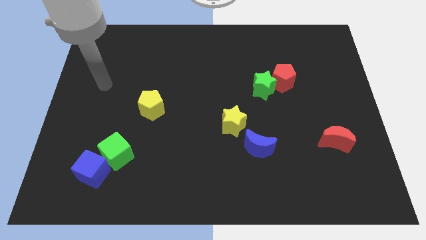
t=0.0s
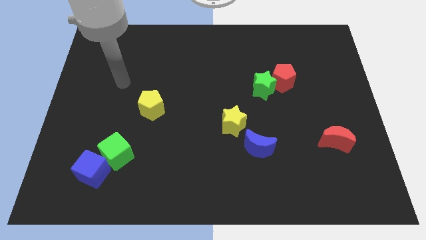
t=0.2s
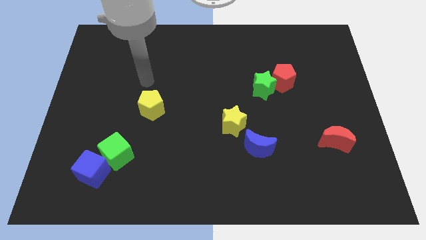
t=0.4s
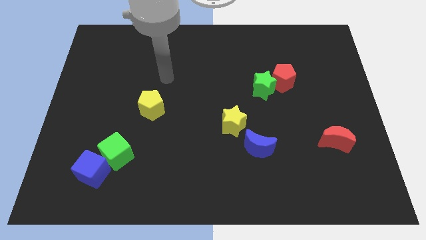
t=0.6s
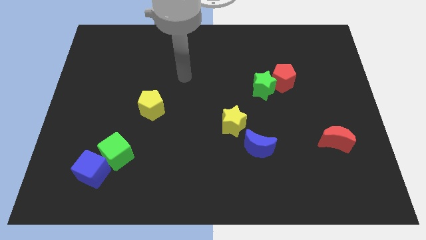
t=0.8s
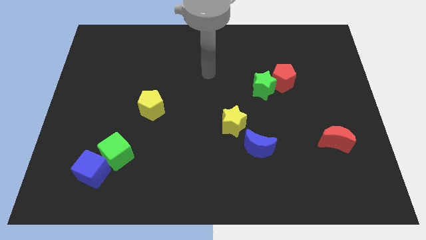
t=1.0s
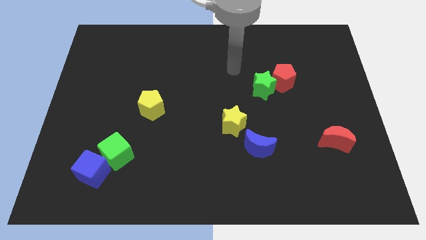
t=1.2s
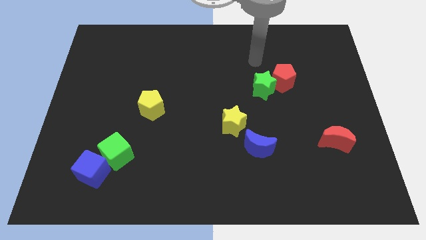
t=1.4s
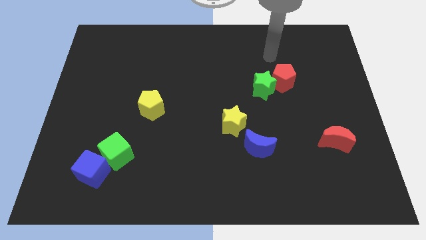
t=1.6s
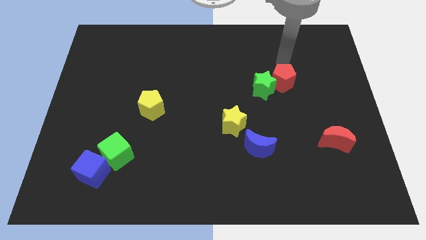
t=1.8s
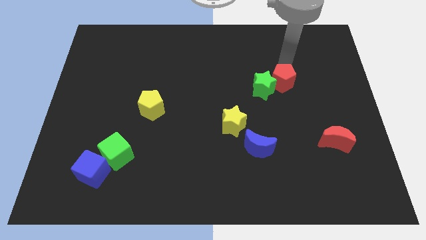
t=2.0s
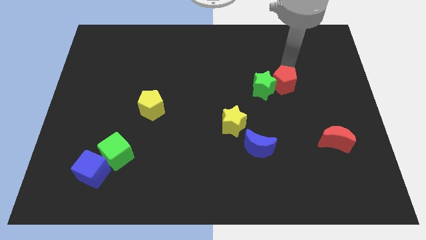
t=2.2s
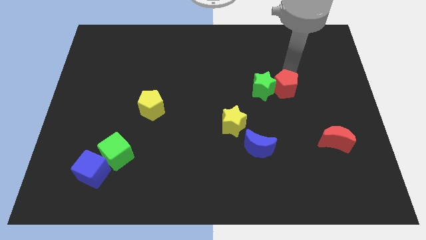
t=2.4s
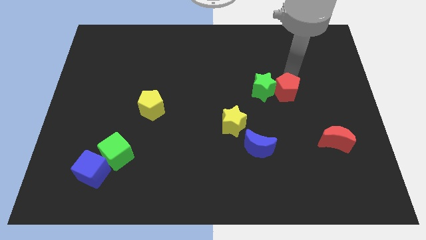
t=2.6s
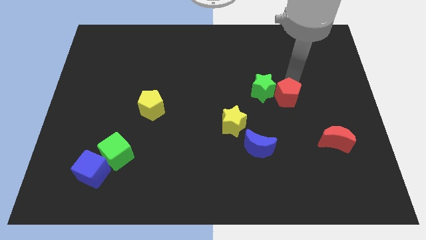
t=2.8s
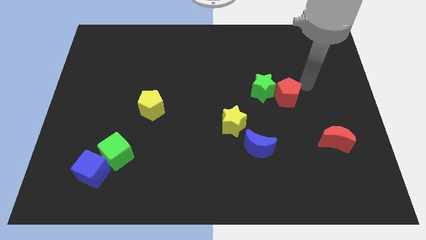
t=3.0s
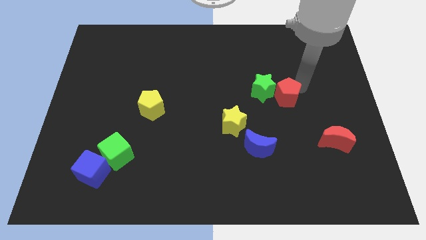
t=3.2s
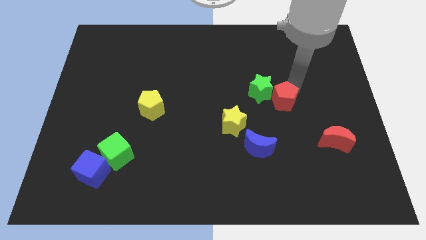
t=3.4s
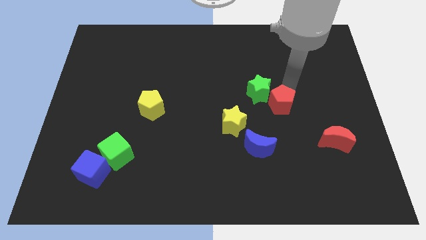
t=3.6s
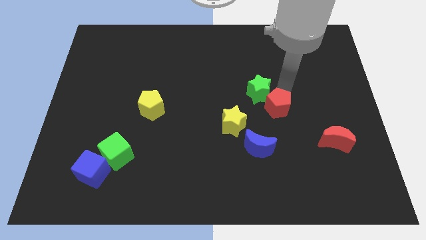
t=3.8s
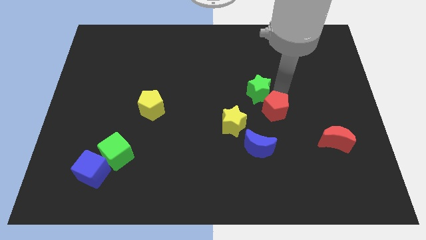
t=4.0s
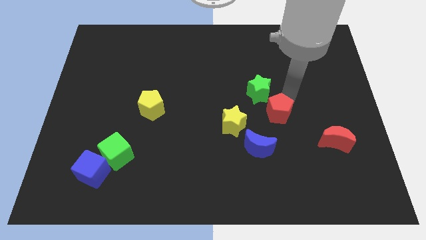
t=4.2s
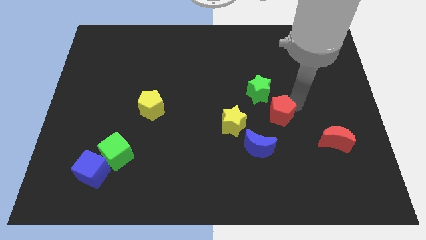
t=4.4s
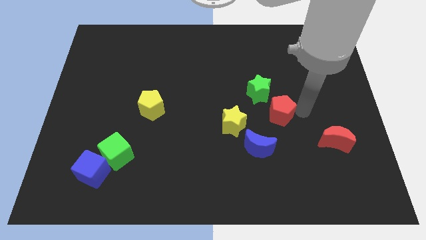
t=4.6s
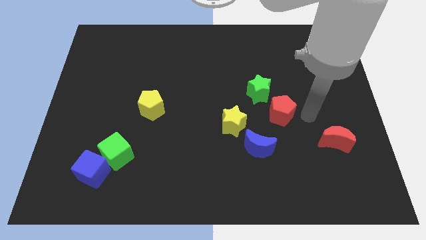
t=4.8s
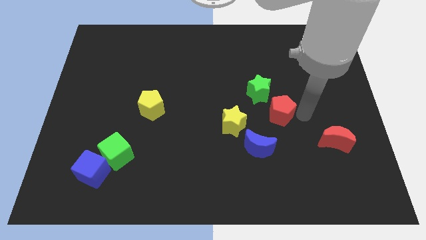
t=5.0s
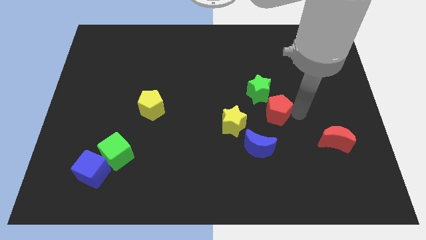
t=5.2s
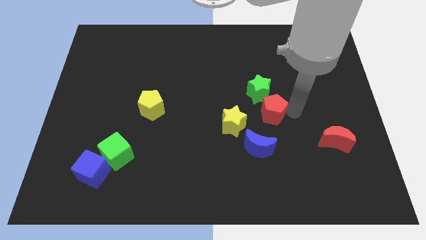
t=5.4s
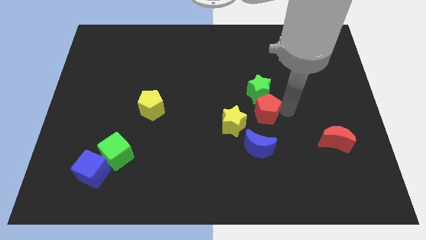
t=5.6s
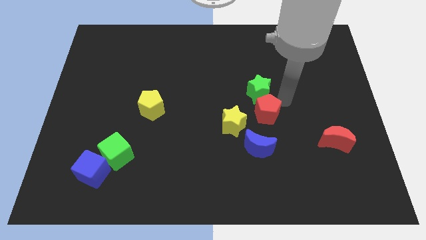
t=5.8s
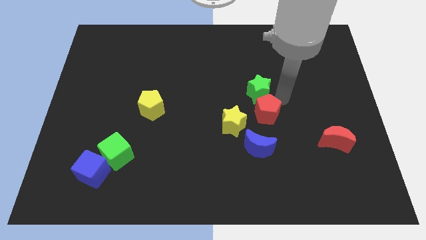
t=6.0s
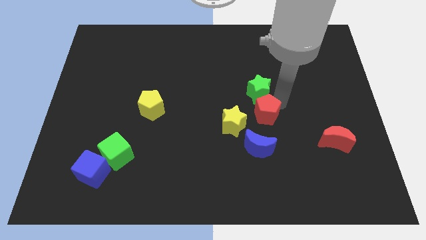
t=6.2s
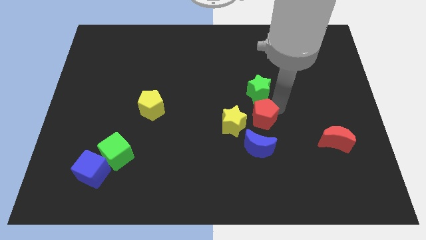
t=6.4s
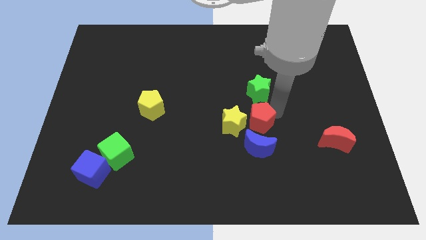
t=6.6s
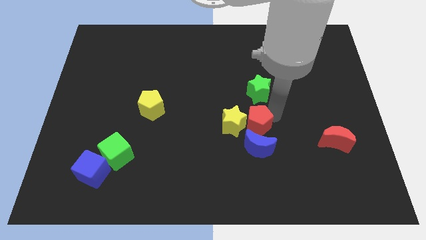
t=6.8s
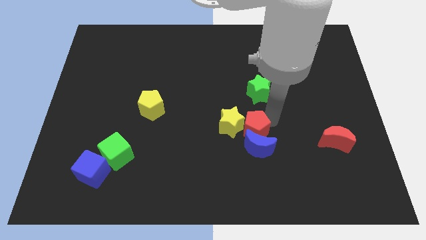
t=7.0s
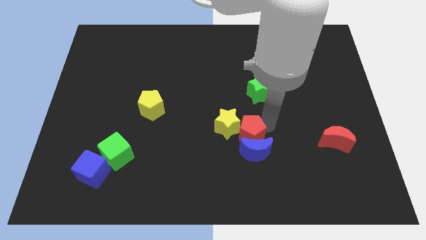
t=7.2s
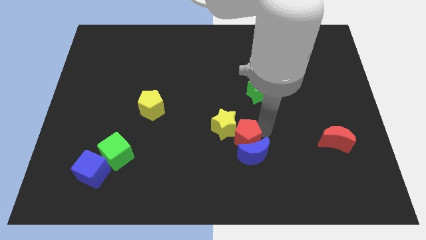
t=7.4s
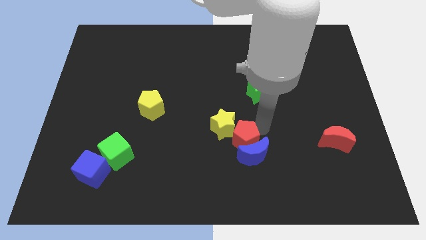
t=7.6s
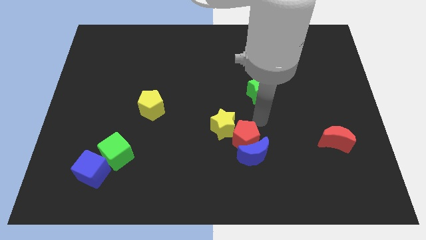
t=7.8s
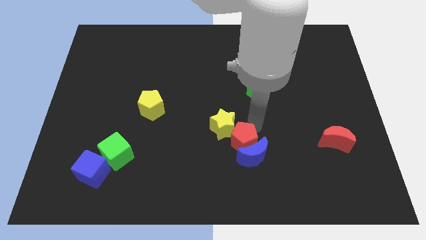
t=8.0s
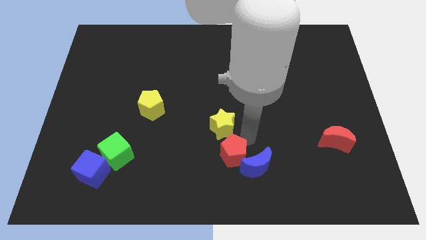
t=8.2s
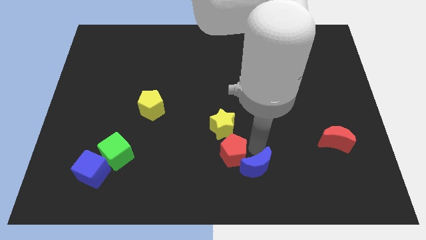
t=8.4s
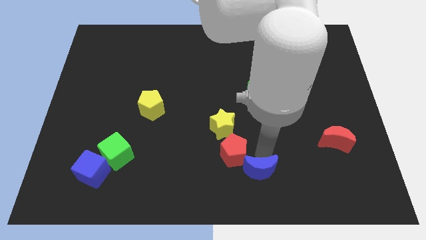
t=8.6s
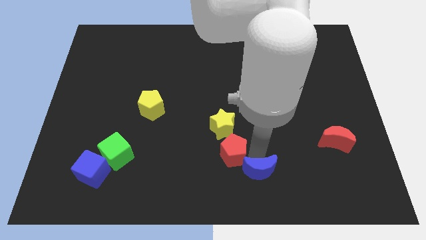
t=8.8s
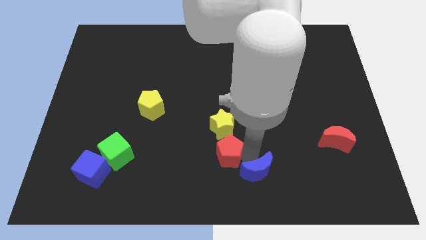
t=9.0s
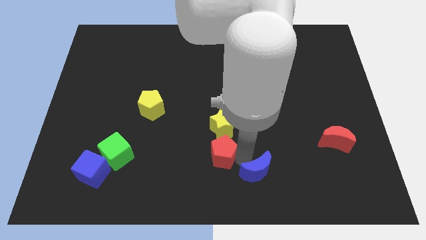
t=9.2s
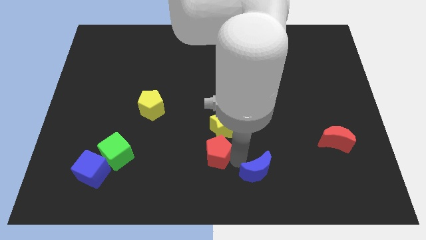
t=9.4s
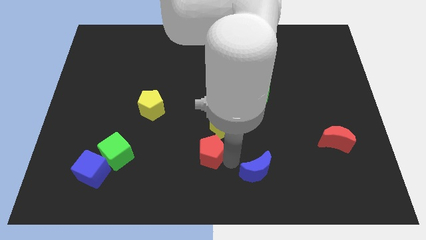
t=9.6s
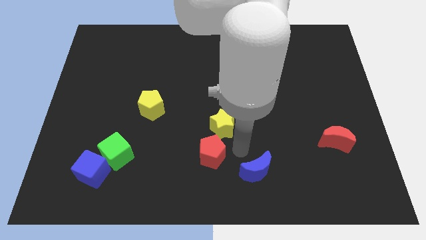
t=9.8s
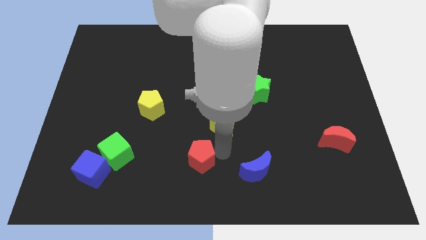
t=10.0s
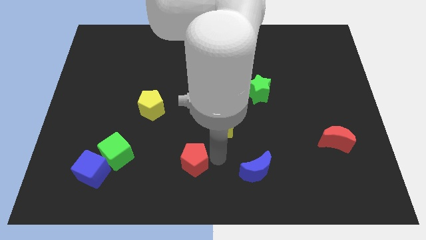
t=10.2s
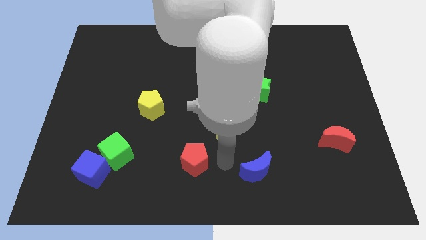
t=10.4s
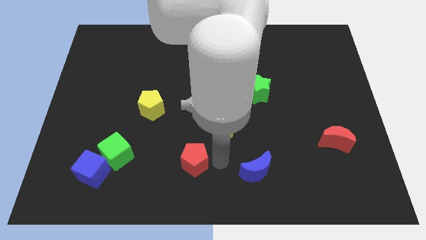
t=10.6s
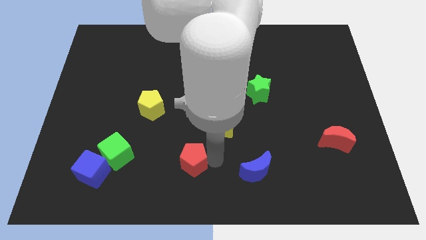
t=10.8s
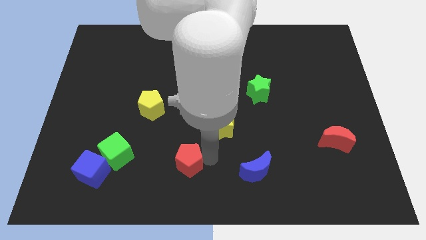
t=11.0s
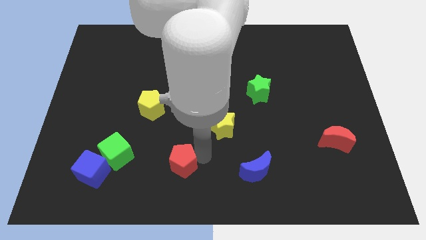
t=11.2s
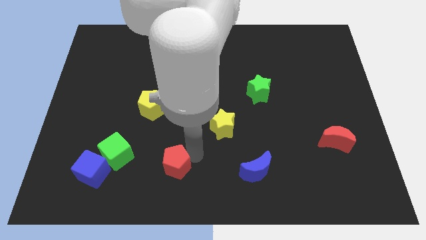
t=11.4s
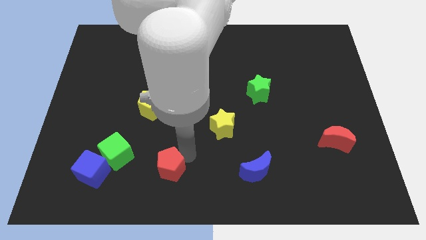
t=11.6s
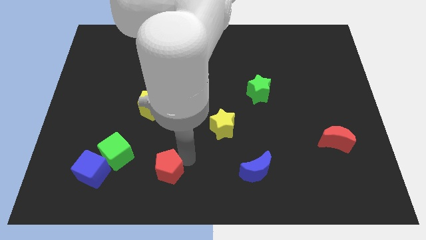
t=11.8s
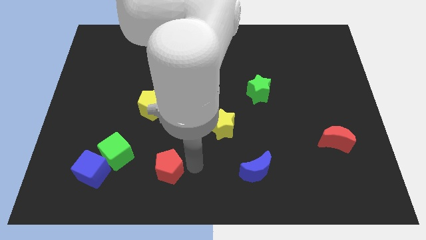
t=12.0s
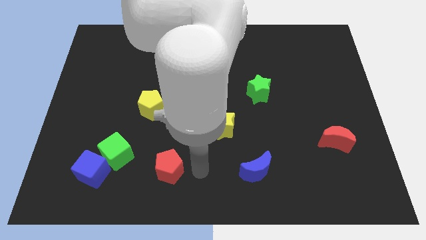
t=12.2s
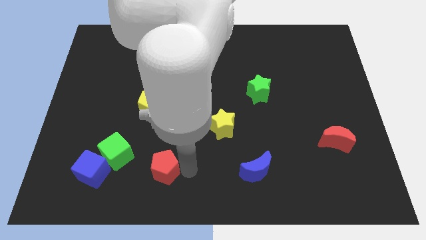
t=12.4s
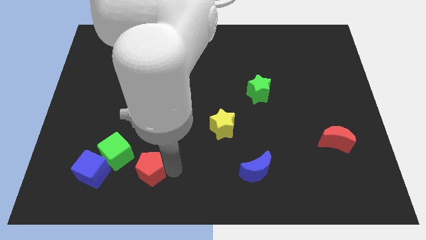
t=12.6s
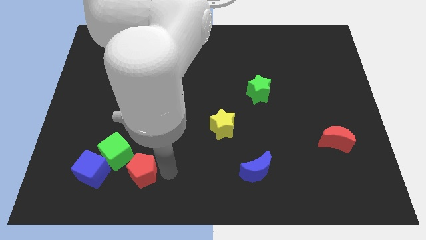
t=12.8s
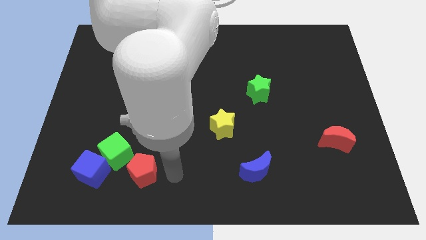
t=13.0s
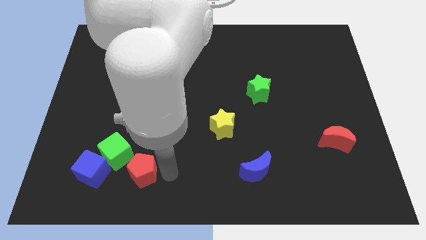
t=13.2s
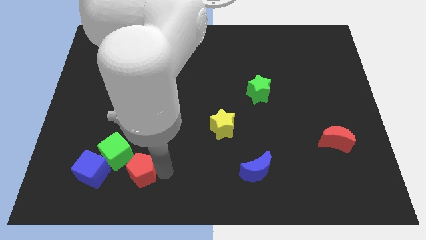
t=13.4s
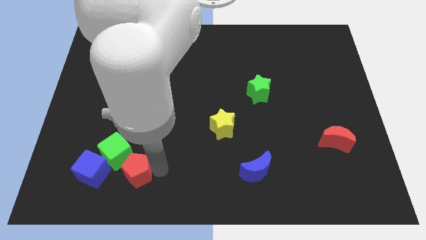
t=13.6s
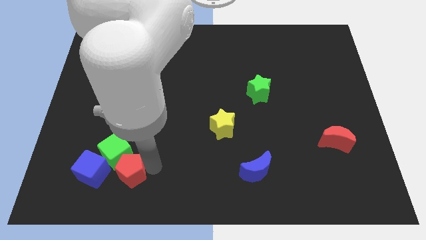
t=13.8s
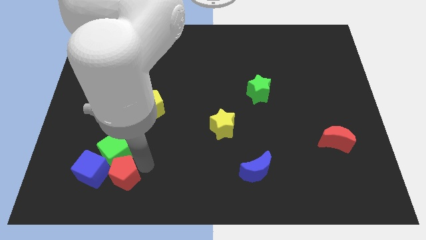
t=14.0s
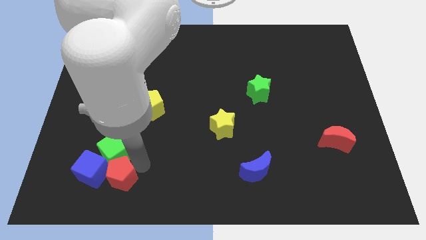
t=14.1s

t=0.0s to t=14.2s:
push the red pentagon next to the blue cube

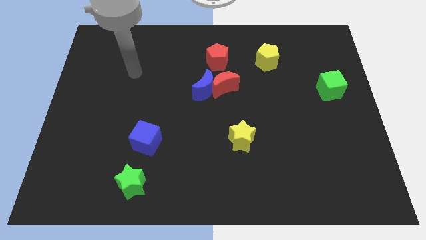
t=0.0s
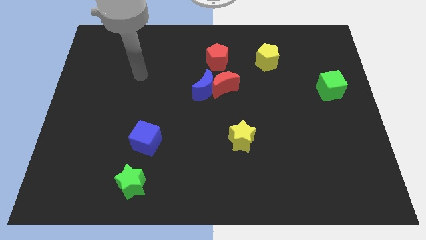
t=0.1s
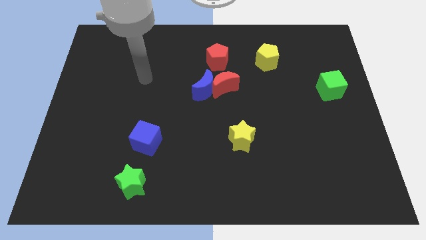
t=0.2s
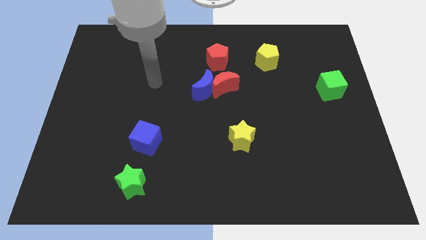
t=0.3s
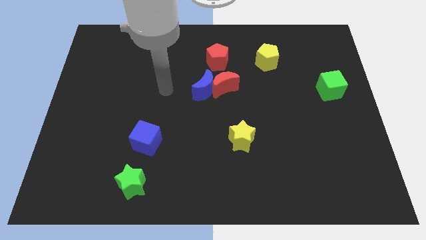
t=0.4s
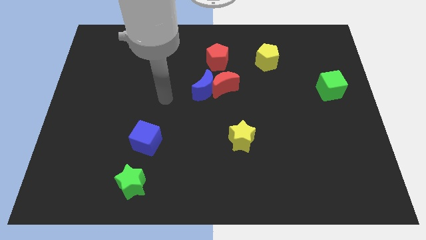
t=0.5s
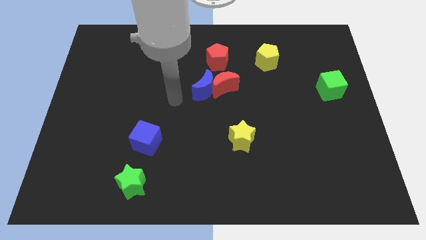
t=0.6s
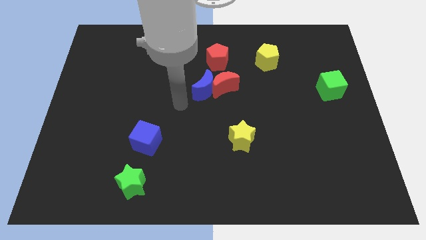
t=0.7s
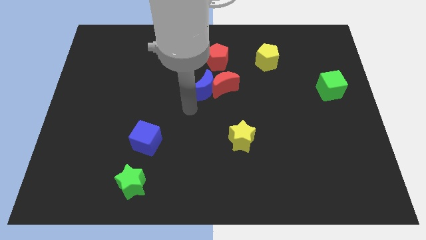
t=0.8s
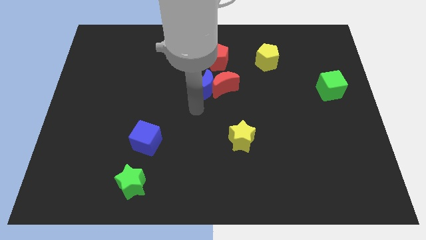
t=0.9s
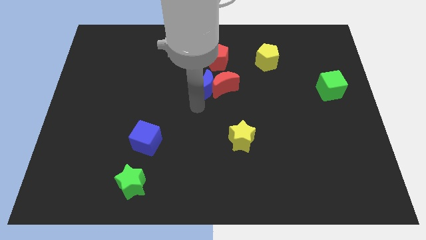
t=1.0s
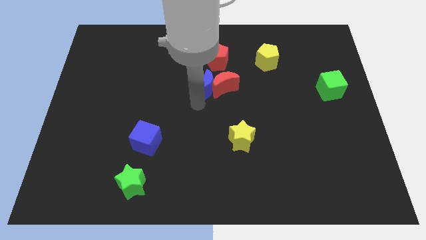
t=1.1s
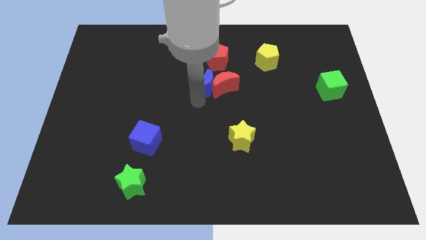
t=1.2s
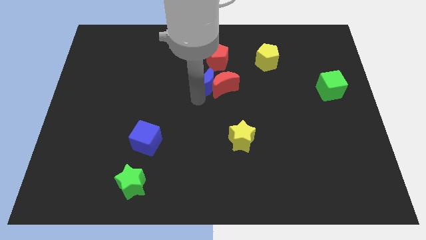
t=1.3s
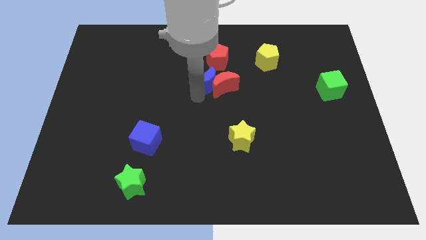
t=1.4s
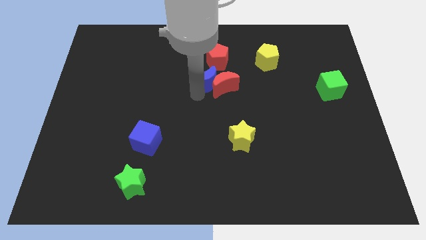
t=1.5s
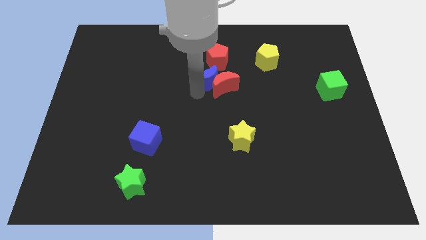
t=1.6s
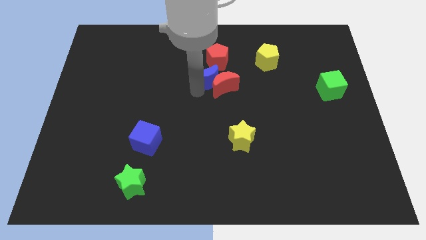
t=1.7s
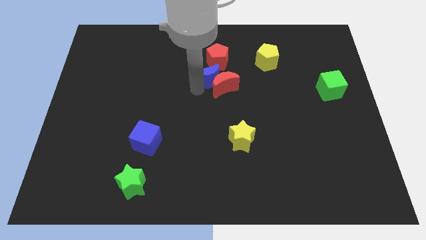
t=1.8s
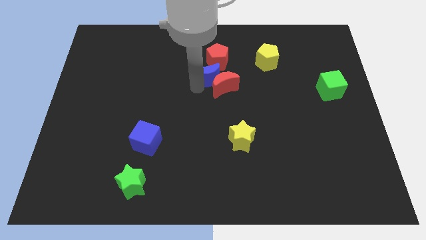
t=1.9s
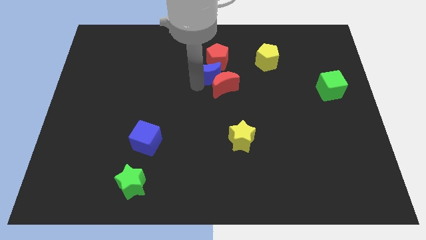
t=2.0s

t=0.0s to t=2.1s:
slide the blue moon to the red pentagon
